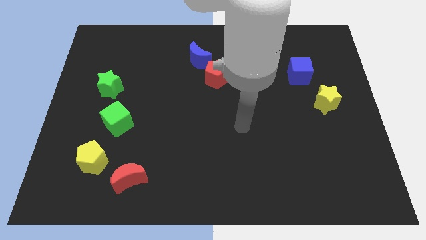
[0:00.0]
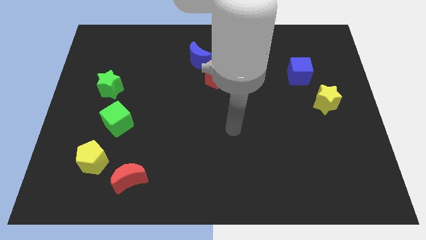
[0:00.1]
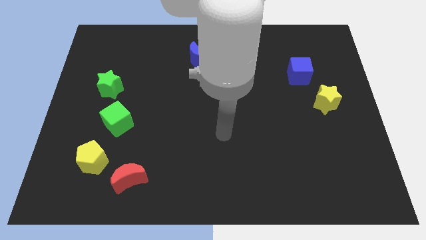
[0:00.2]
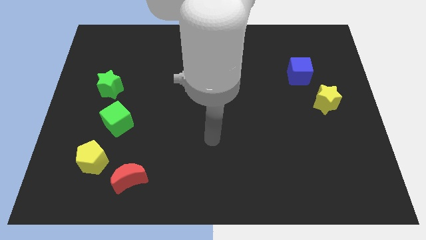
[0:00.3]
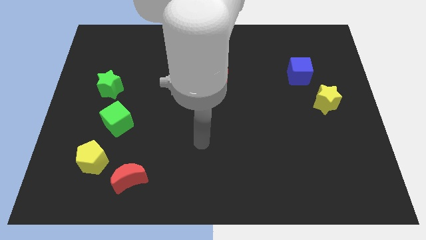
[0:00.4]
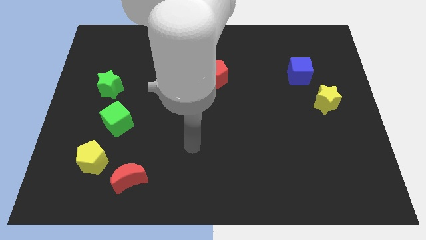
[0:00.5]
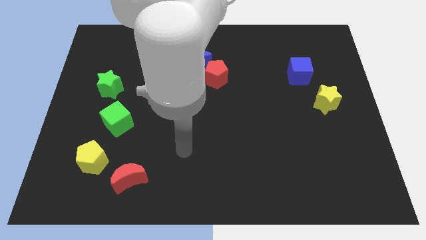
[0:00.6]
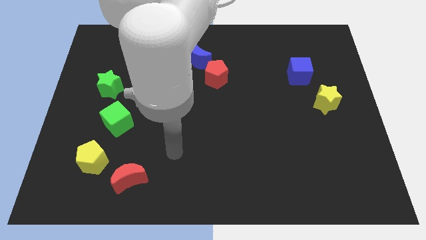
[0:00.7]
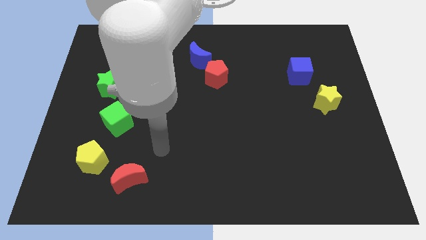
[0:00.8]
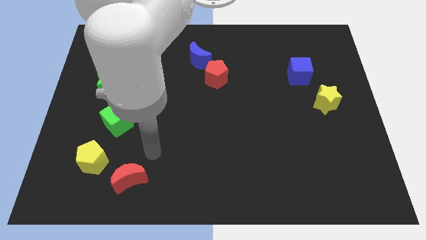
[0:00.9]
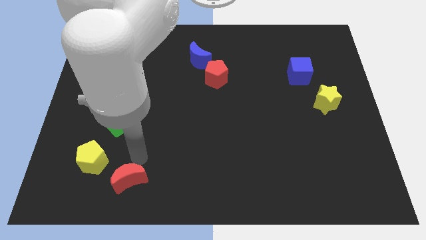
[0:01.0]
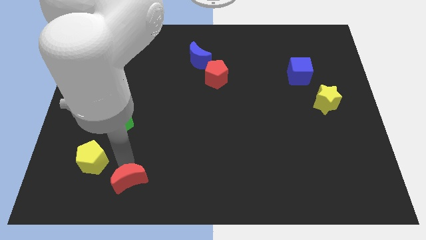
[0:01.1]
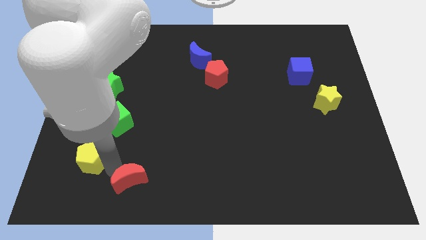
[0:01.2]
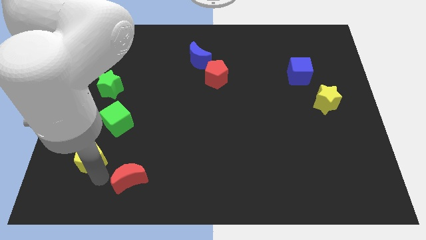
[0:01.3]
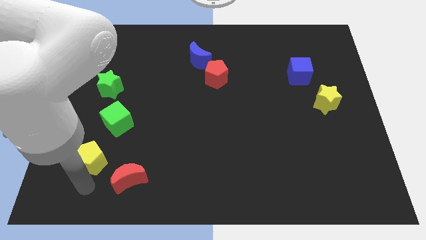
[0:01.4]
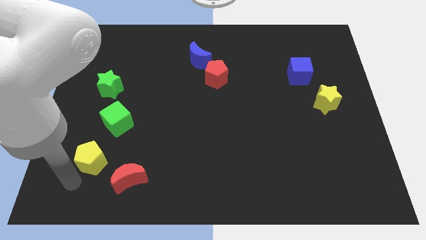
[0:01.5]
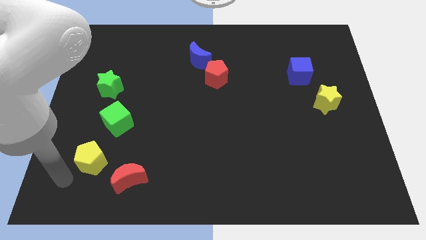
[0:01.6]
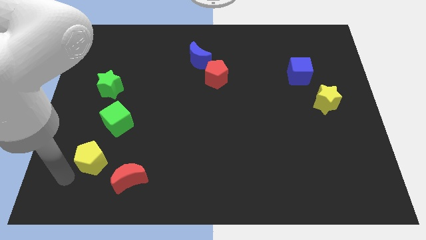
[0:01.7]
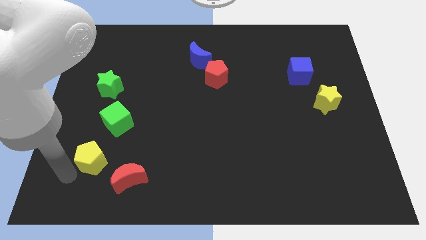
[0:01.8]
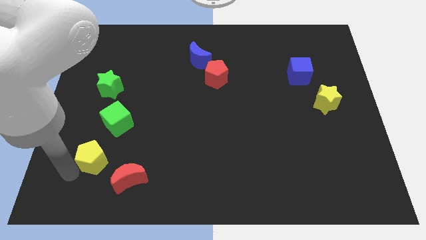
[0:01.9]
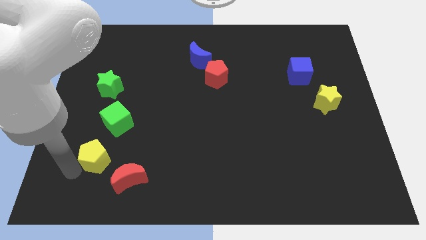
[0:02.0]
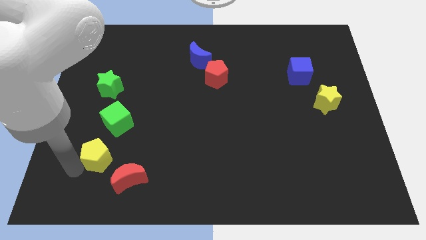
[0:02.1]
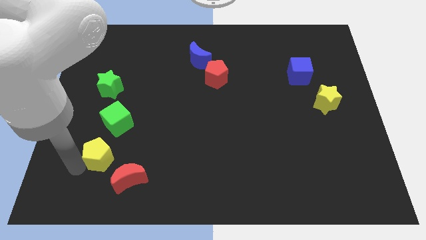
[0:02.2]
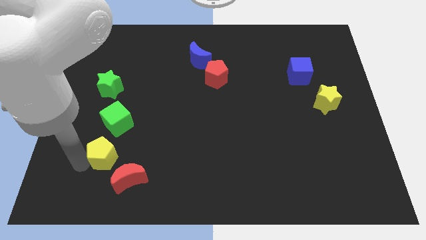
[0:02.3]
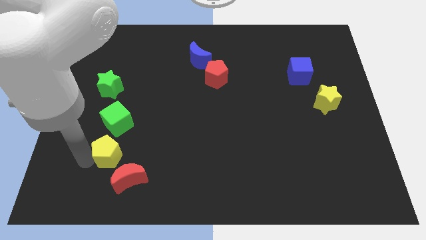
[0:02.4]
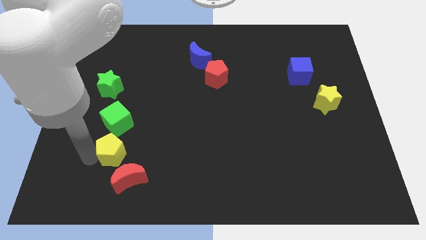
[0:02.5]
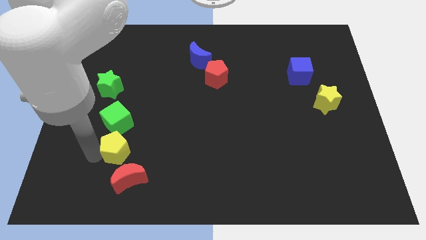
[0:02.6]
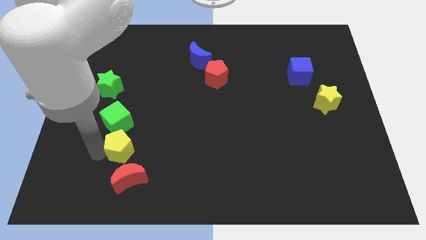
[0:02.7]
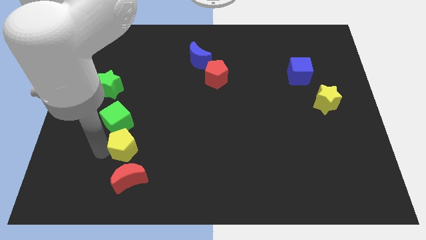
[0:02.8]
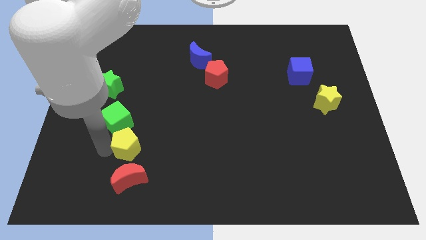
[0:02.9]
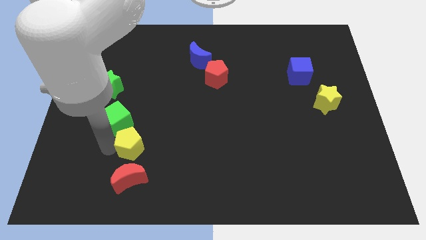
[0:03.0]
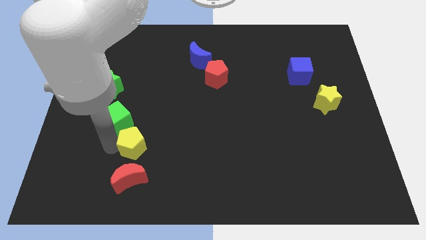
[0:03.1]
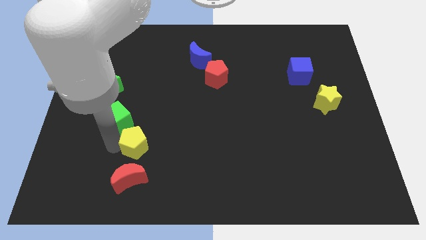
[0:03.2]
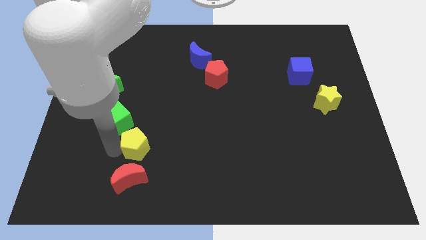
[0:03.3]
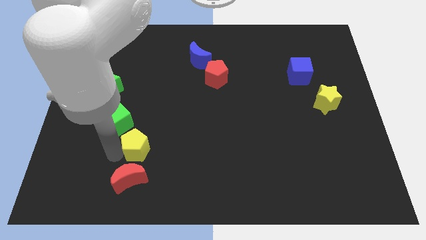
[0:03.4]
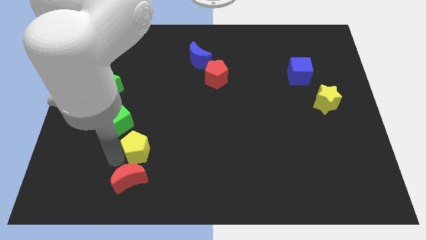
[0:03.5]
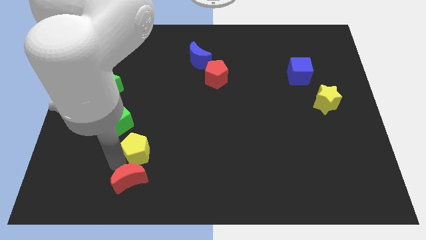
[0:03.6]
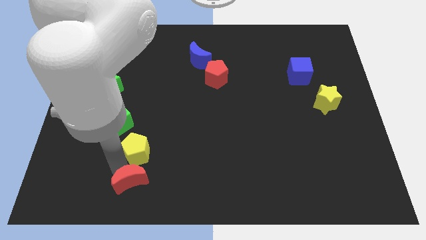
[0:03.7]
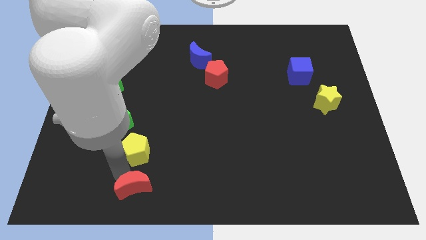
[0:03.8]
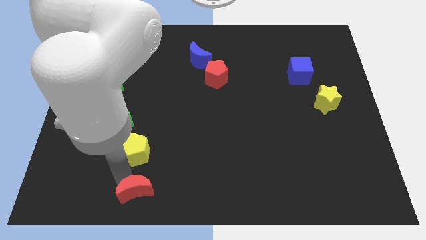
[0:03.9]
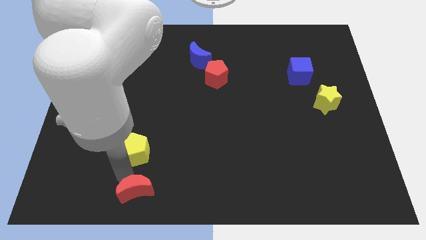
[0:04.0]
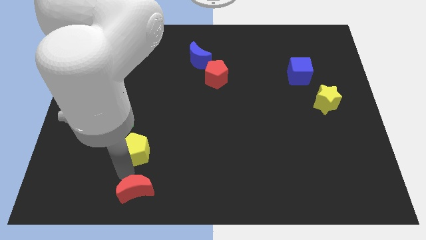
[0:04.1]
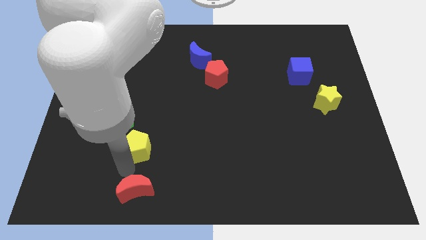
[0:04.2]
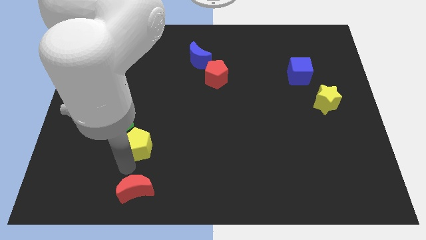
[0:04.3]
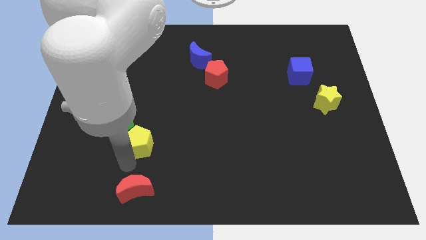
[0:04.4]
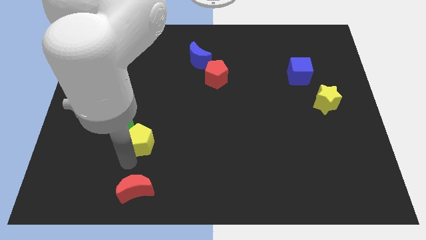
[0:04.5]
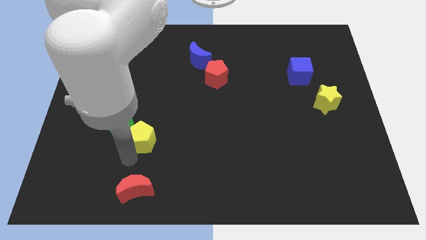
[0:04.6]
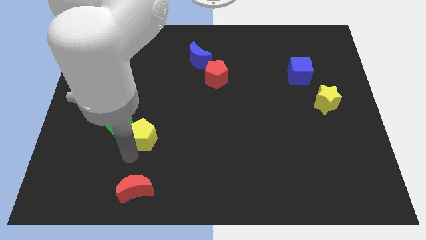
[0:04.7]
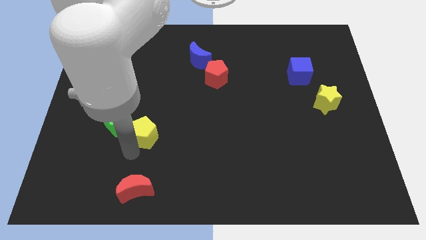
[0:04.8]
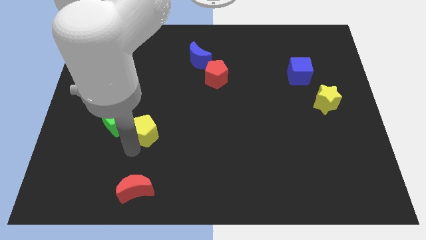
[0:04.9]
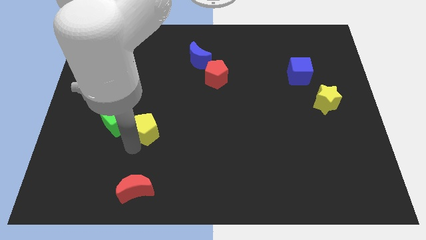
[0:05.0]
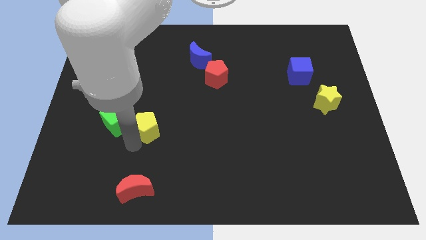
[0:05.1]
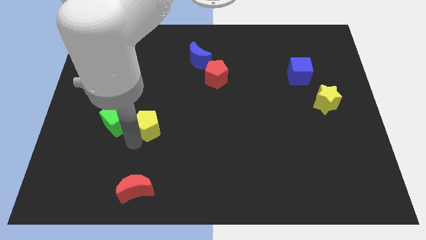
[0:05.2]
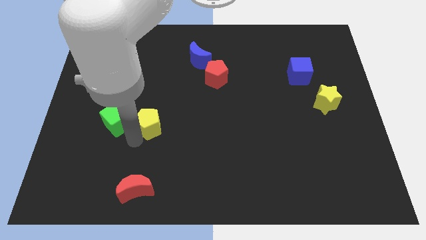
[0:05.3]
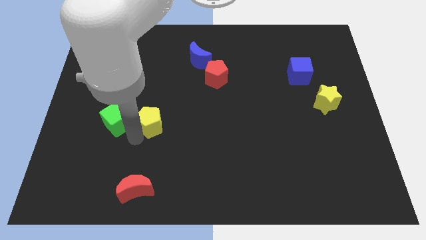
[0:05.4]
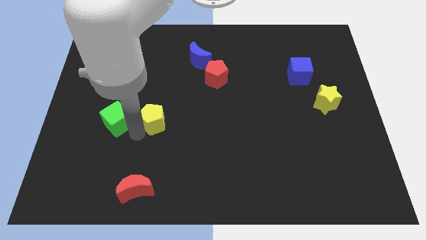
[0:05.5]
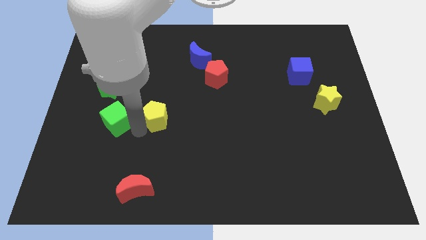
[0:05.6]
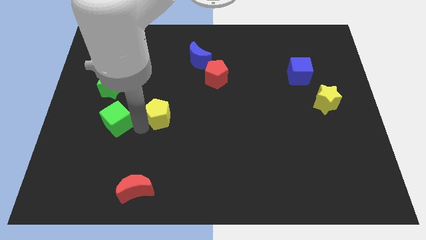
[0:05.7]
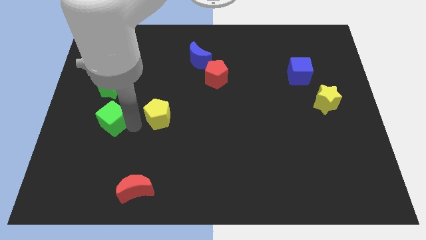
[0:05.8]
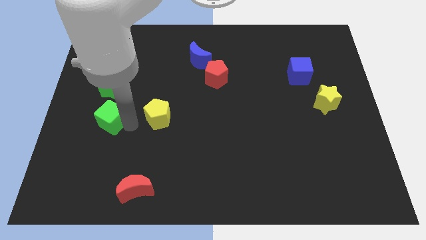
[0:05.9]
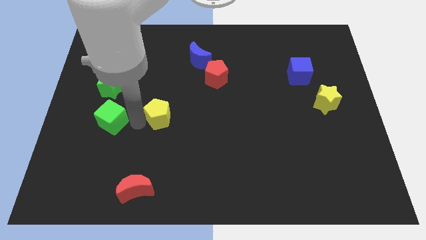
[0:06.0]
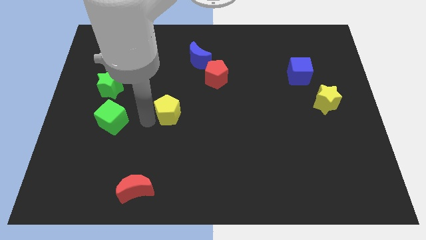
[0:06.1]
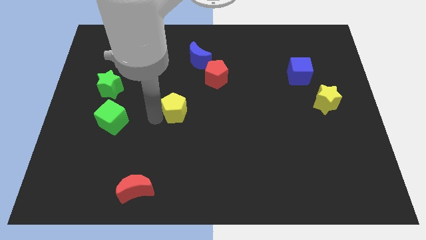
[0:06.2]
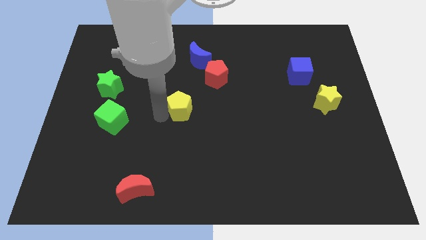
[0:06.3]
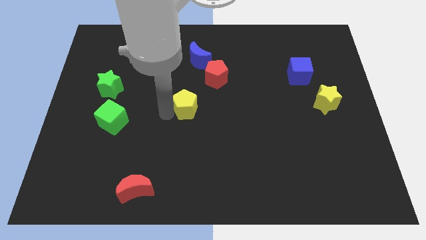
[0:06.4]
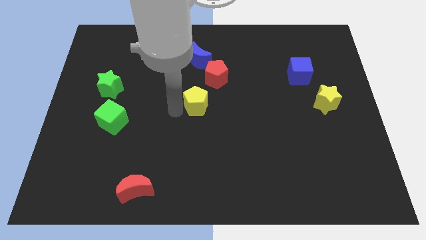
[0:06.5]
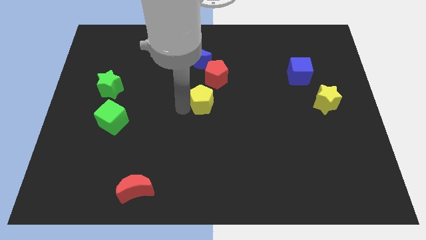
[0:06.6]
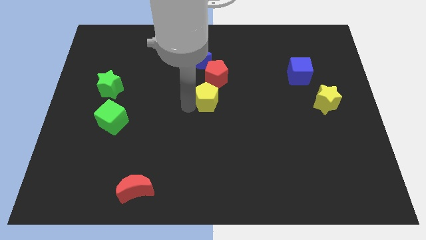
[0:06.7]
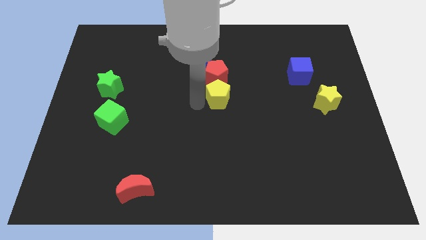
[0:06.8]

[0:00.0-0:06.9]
slide the yellow pentagon diagonally down and to the right of the red pentagon
